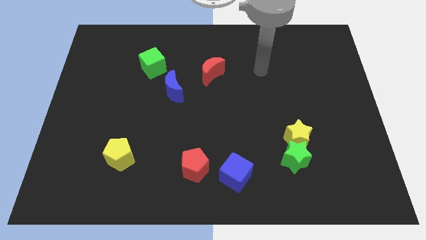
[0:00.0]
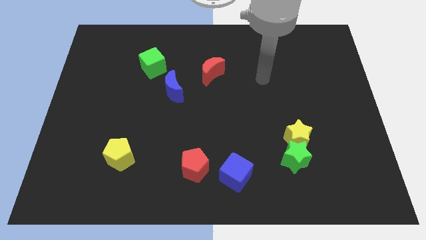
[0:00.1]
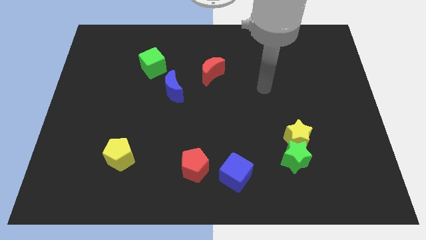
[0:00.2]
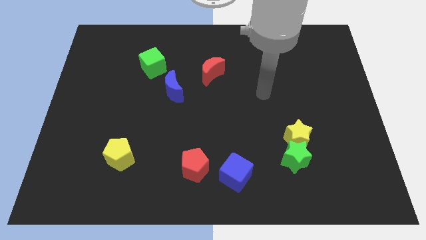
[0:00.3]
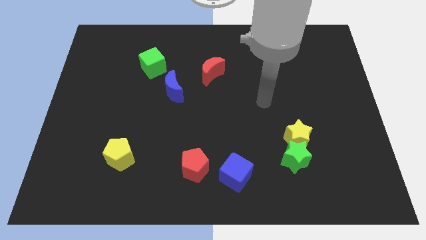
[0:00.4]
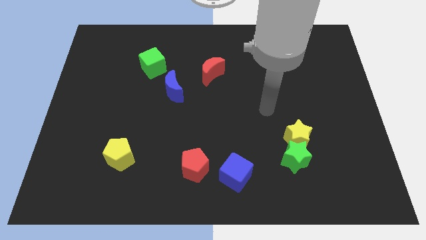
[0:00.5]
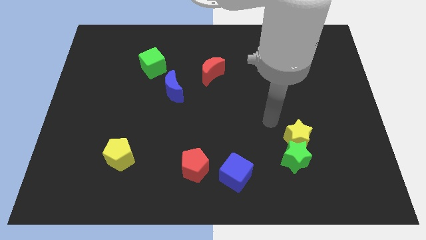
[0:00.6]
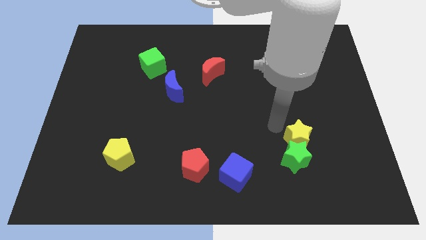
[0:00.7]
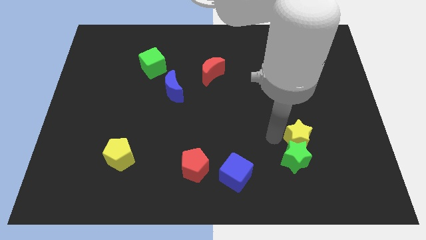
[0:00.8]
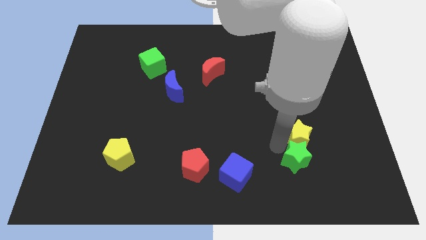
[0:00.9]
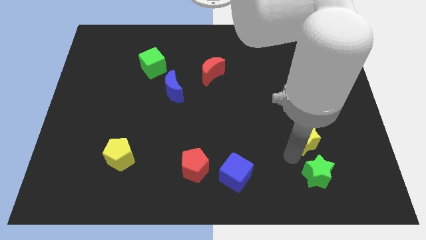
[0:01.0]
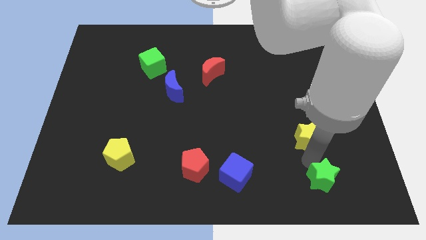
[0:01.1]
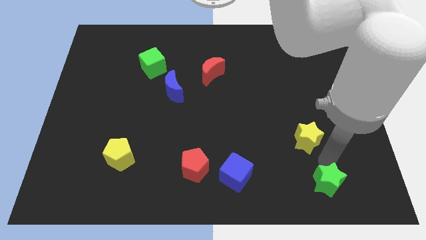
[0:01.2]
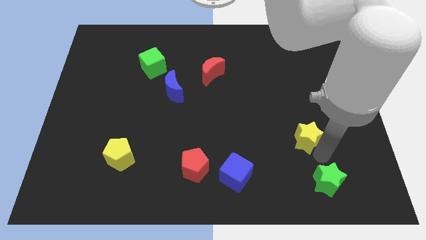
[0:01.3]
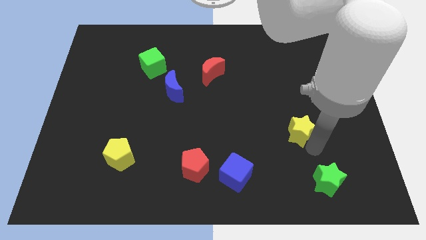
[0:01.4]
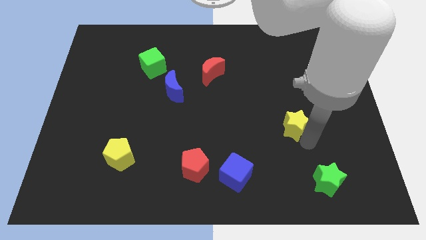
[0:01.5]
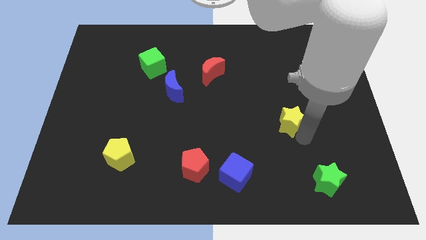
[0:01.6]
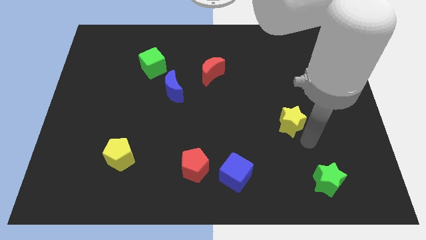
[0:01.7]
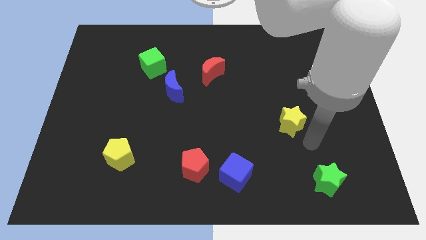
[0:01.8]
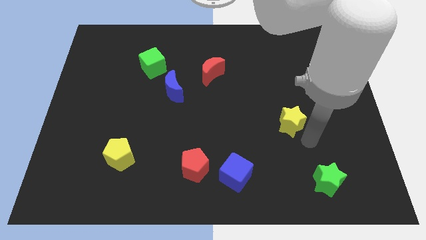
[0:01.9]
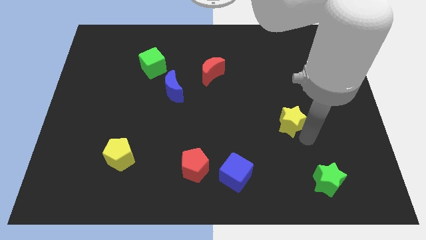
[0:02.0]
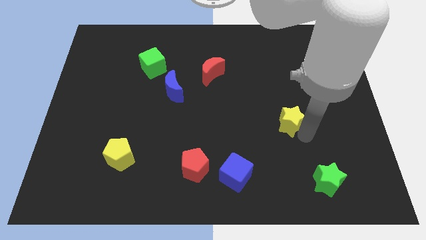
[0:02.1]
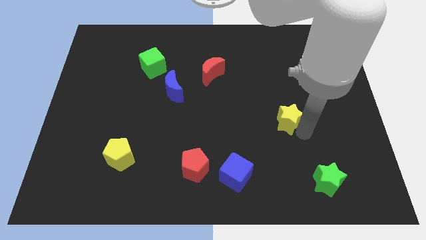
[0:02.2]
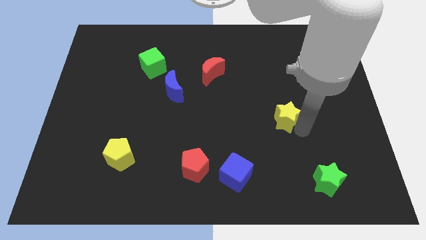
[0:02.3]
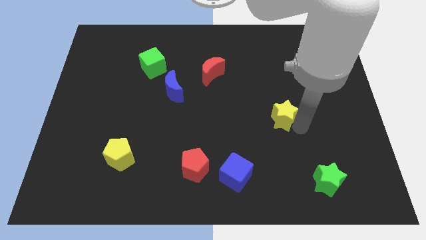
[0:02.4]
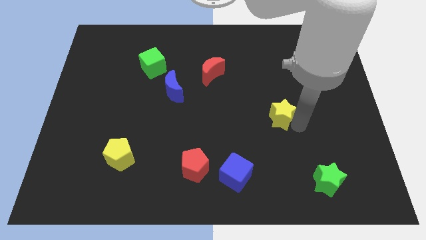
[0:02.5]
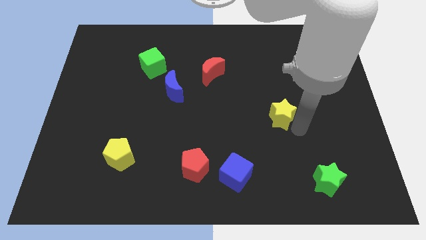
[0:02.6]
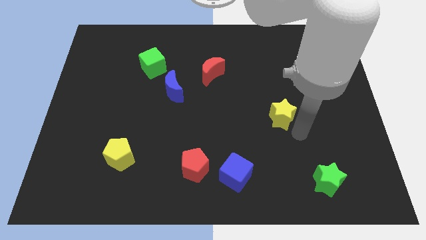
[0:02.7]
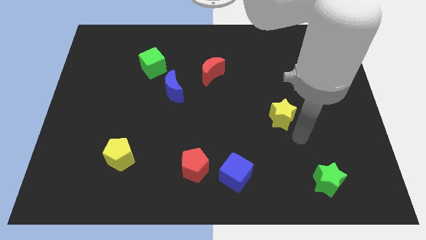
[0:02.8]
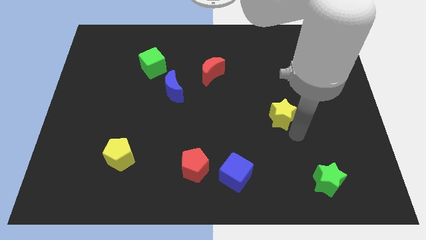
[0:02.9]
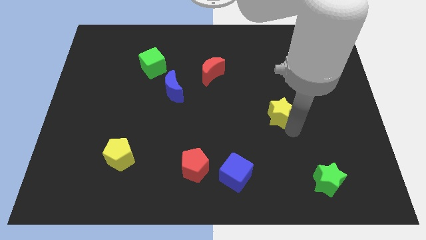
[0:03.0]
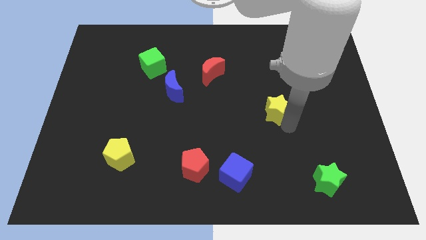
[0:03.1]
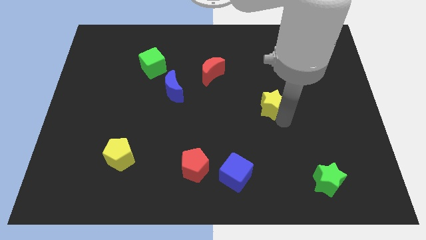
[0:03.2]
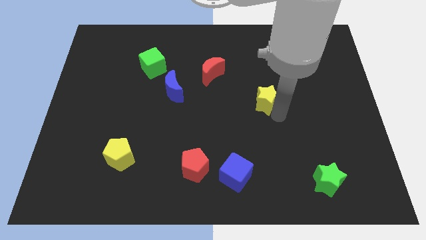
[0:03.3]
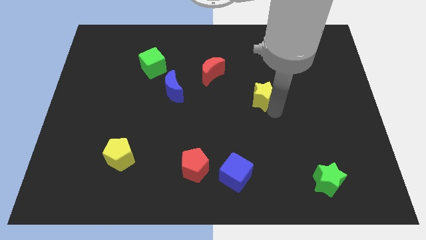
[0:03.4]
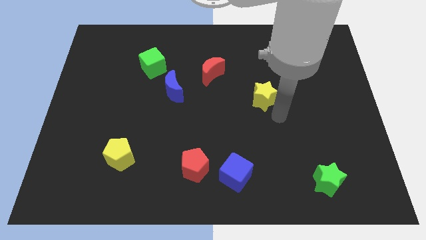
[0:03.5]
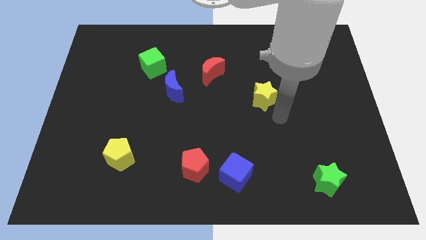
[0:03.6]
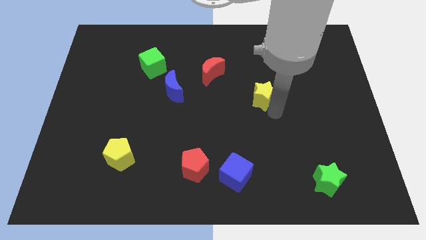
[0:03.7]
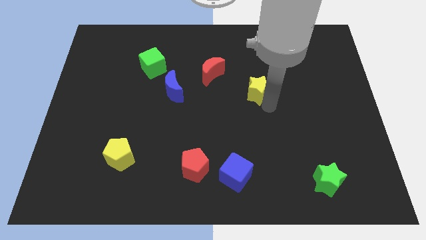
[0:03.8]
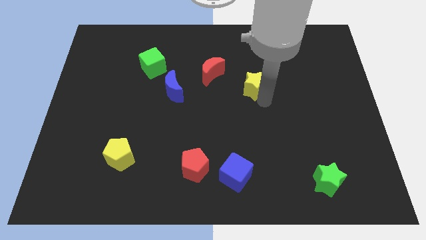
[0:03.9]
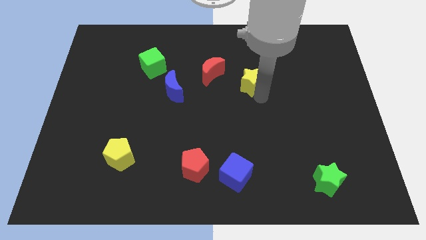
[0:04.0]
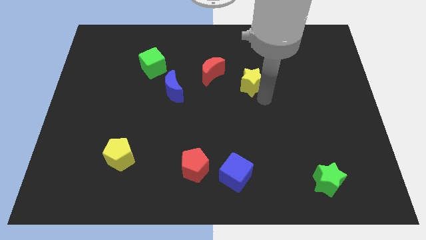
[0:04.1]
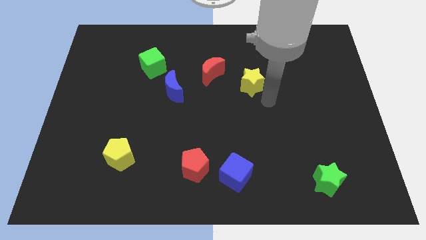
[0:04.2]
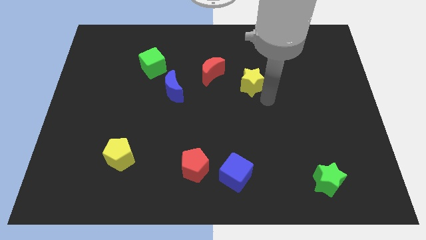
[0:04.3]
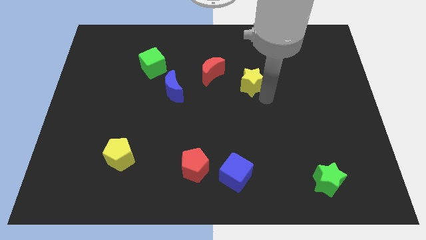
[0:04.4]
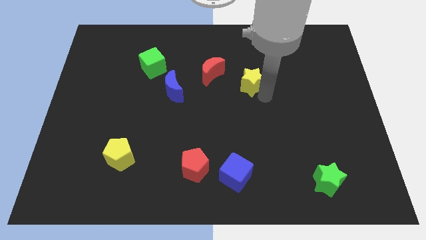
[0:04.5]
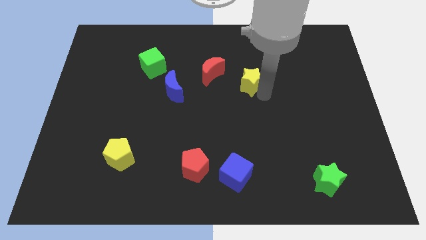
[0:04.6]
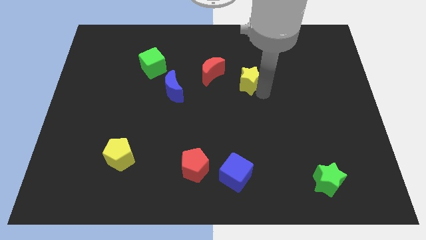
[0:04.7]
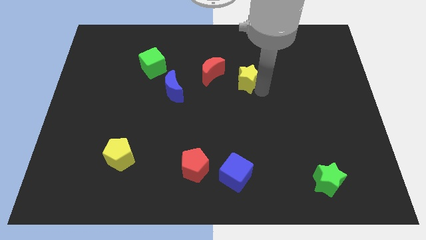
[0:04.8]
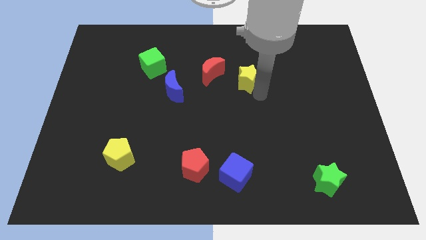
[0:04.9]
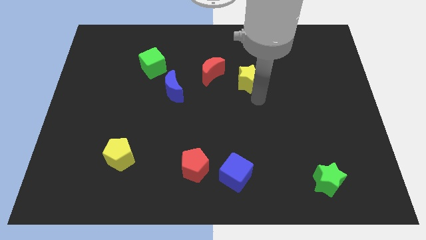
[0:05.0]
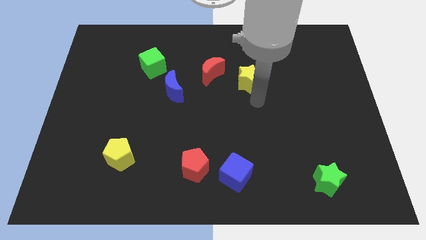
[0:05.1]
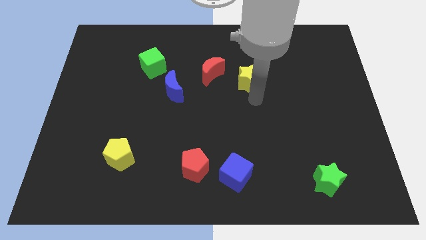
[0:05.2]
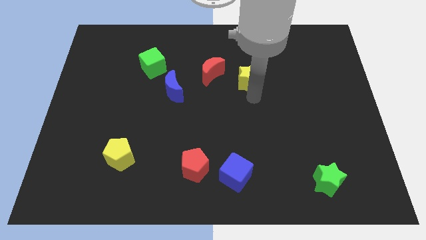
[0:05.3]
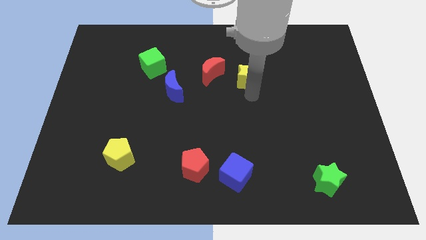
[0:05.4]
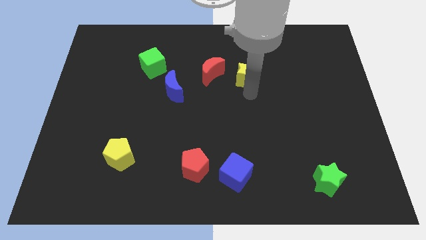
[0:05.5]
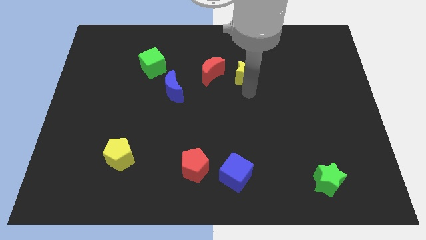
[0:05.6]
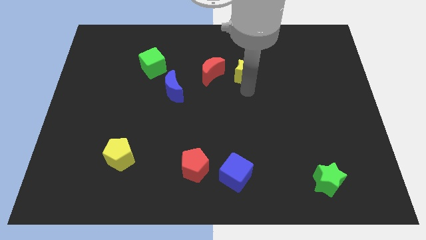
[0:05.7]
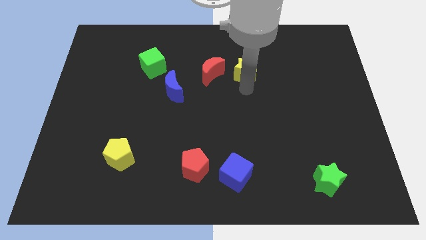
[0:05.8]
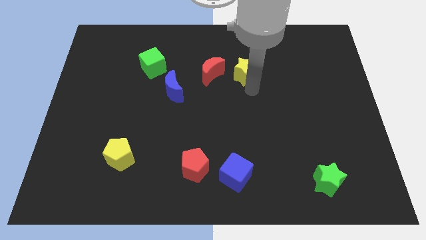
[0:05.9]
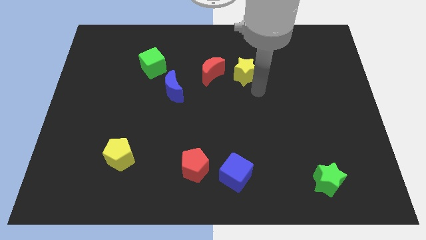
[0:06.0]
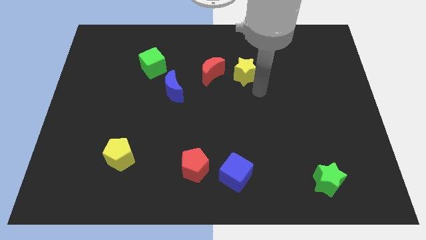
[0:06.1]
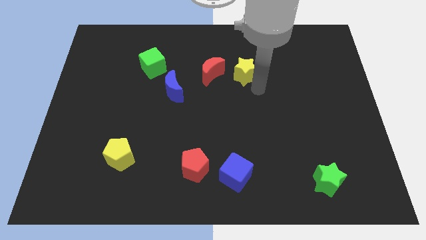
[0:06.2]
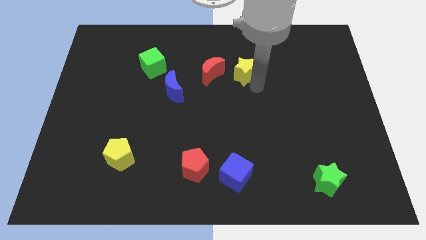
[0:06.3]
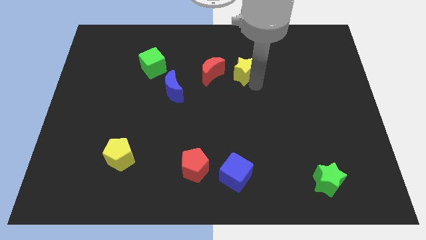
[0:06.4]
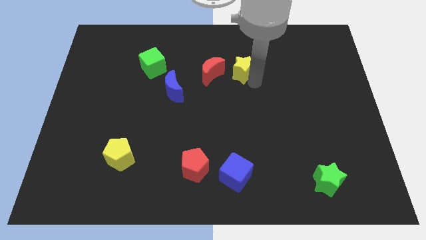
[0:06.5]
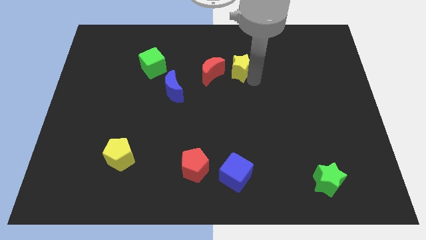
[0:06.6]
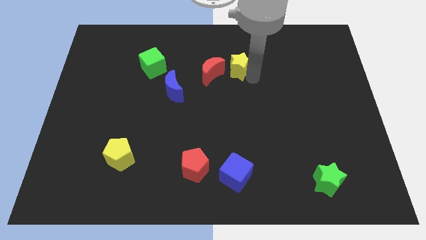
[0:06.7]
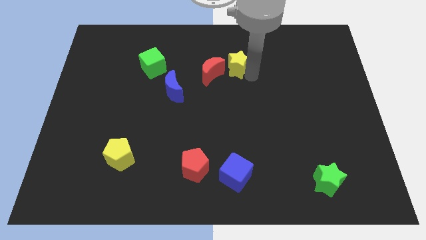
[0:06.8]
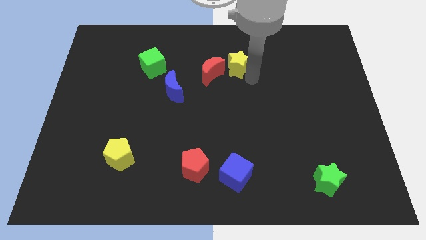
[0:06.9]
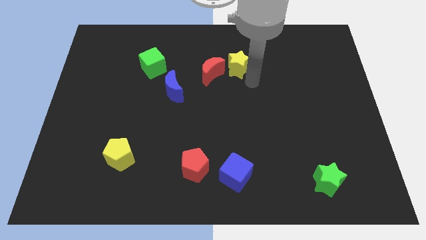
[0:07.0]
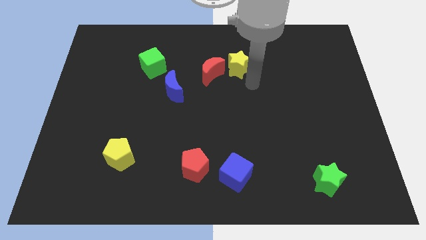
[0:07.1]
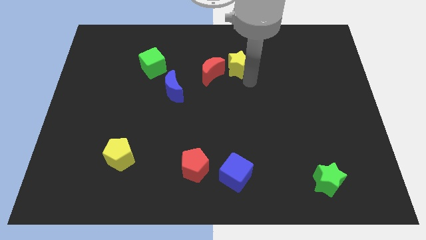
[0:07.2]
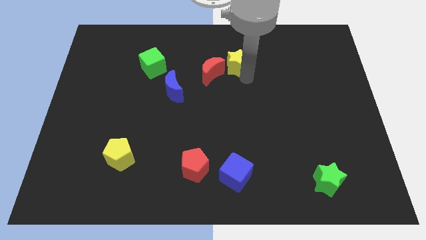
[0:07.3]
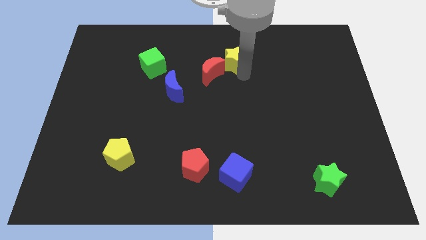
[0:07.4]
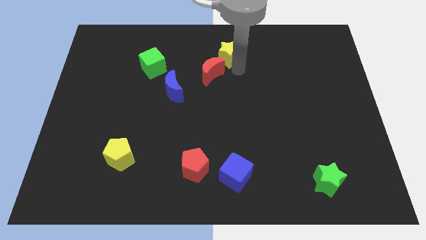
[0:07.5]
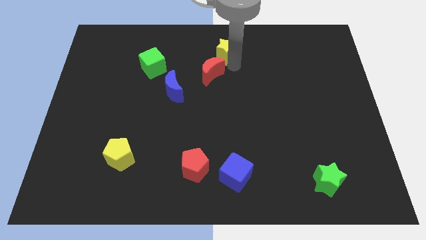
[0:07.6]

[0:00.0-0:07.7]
put the yellow star to the top
